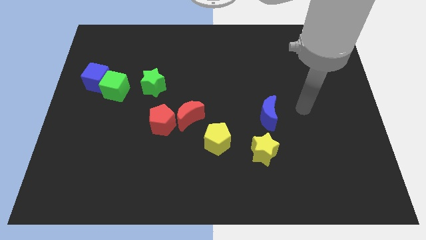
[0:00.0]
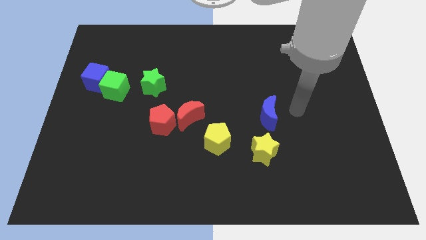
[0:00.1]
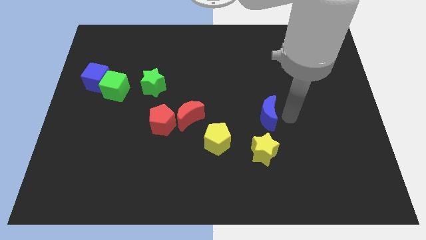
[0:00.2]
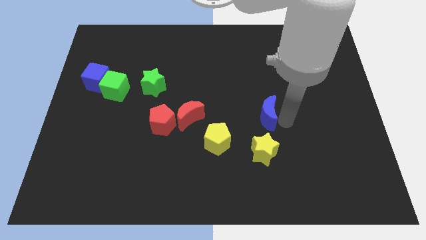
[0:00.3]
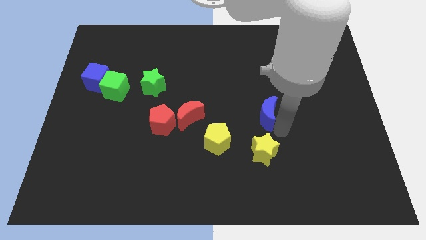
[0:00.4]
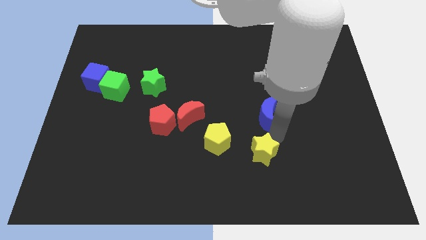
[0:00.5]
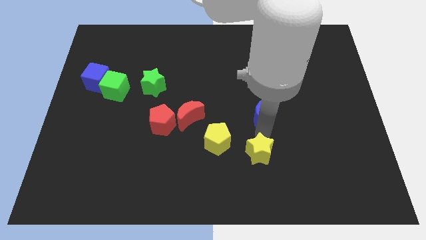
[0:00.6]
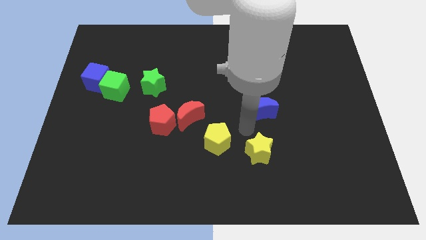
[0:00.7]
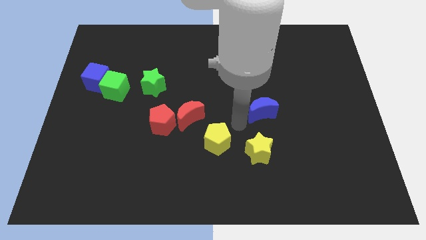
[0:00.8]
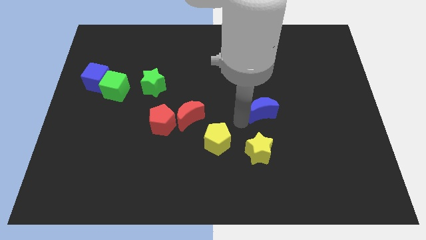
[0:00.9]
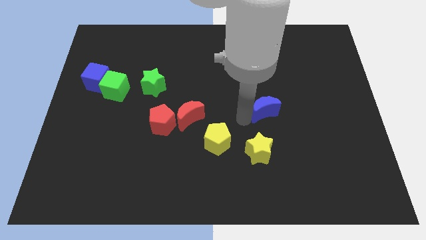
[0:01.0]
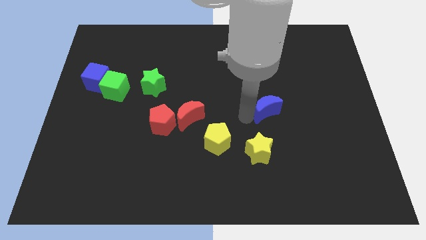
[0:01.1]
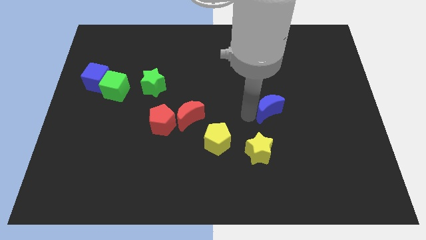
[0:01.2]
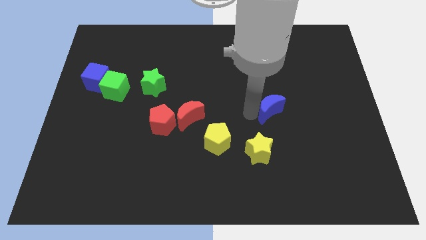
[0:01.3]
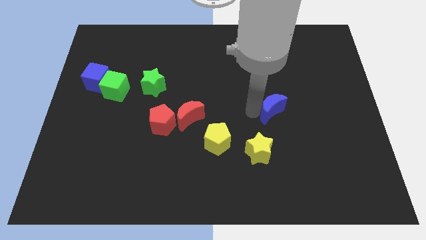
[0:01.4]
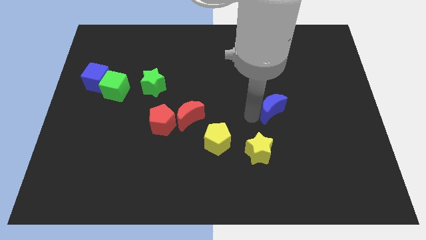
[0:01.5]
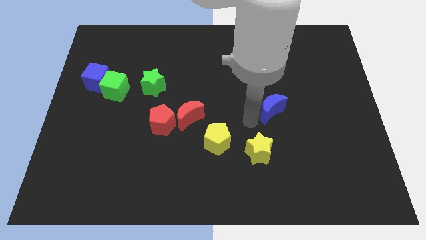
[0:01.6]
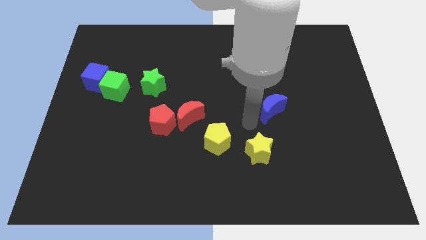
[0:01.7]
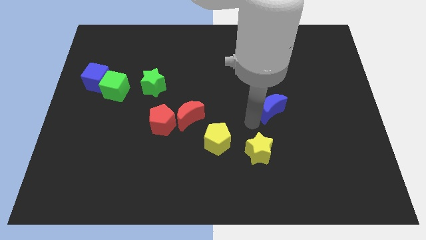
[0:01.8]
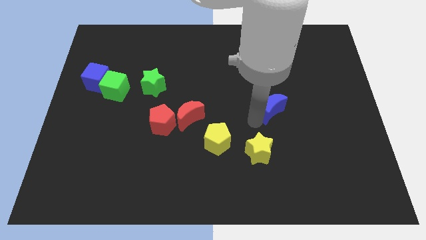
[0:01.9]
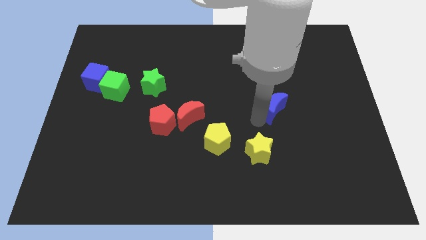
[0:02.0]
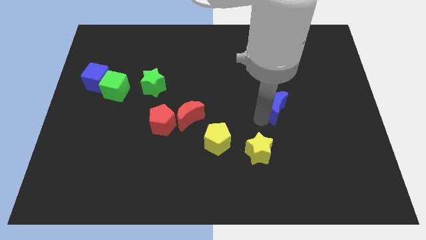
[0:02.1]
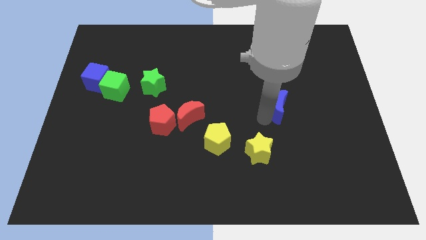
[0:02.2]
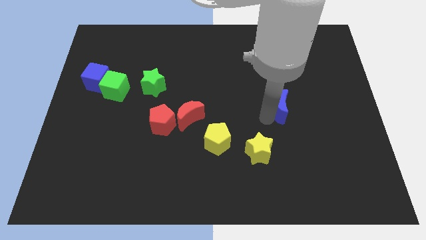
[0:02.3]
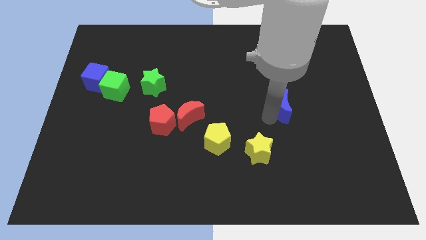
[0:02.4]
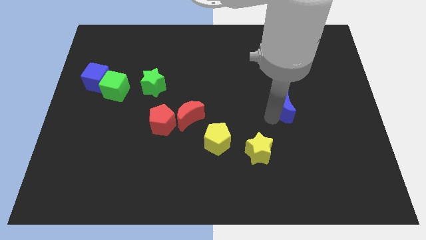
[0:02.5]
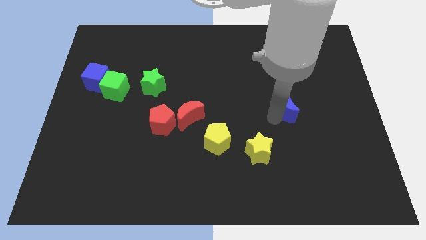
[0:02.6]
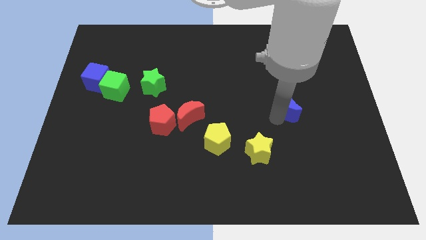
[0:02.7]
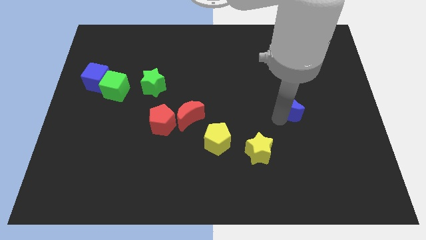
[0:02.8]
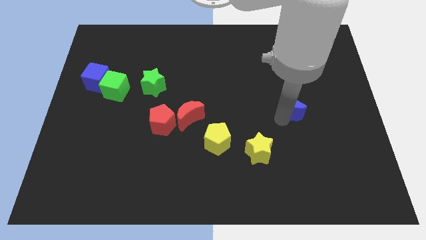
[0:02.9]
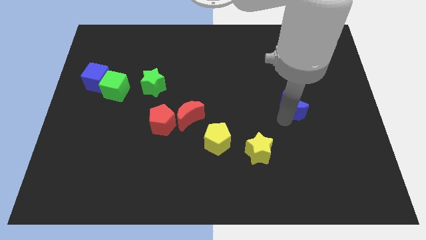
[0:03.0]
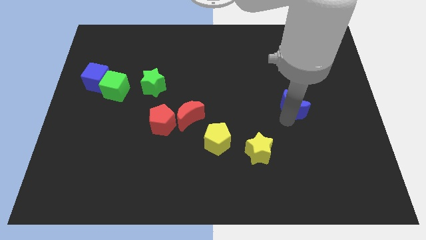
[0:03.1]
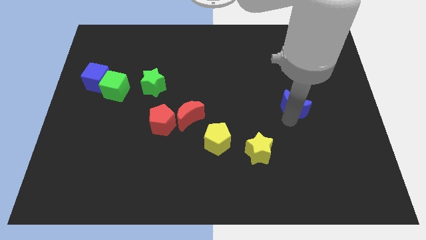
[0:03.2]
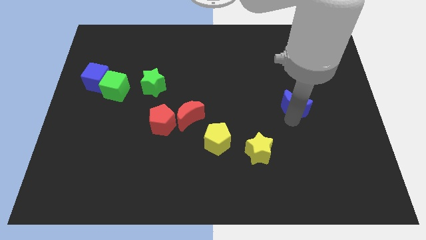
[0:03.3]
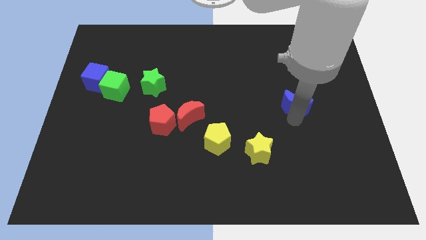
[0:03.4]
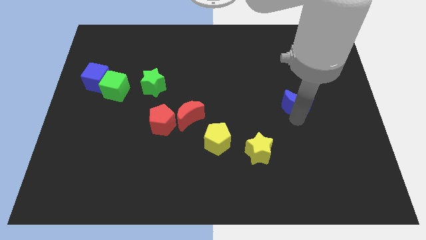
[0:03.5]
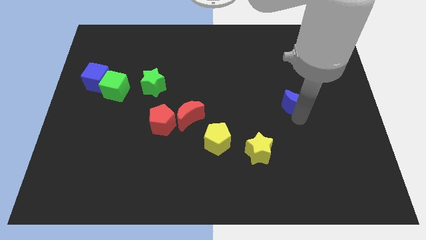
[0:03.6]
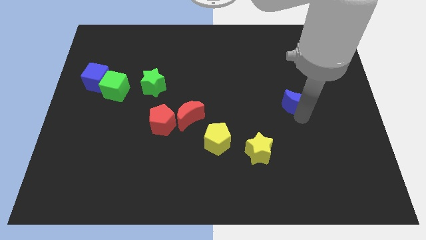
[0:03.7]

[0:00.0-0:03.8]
push the blue moon up and then to the right somewhat

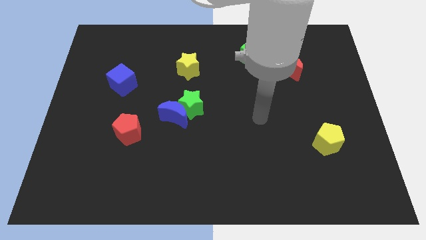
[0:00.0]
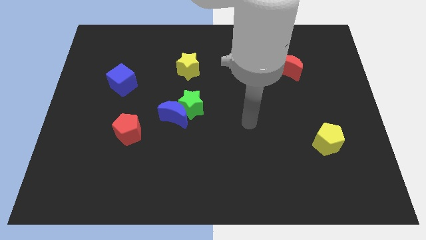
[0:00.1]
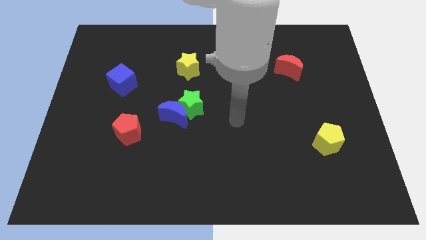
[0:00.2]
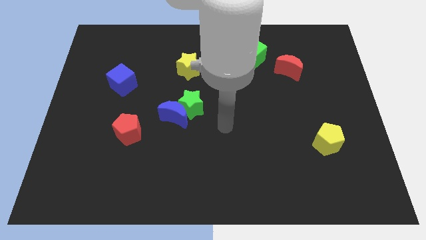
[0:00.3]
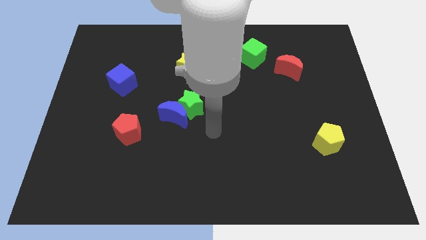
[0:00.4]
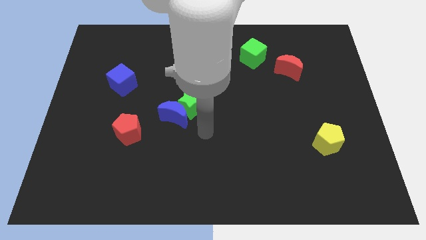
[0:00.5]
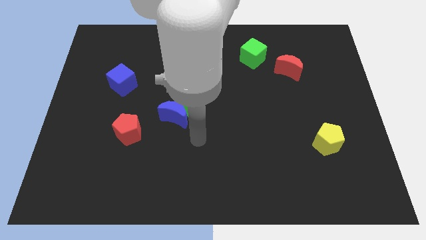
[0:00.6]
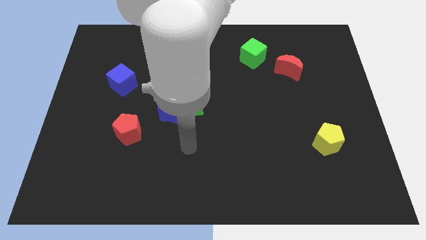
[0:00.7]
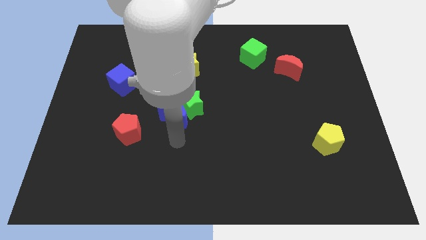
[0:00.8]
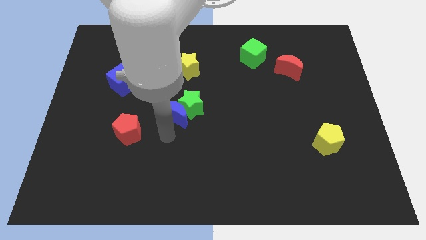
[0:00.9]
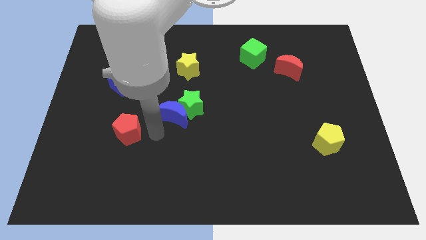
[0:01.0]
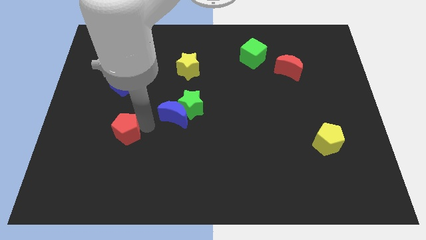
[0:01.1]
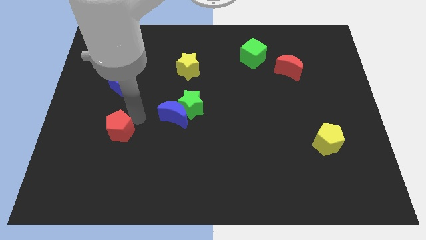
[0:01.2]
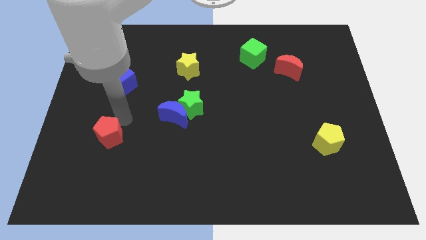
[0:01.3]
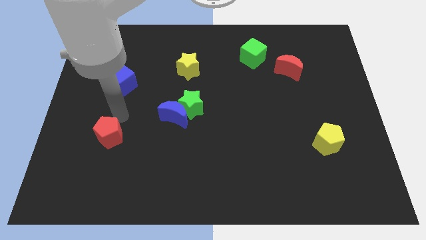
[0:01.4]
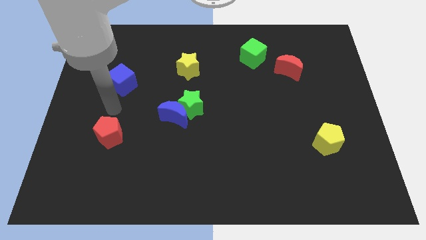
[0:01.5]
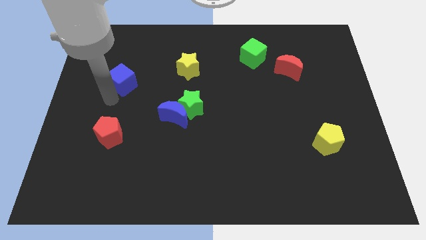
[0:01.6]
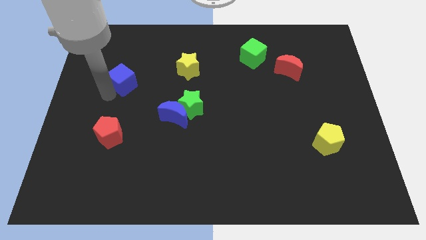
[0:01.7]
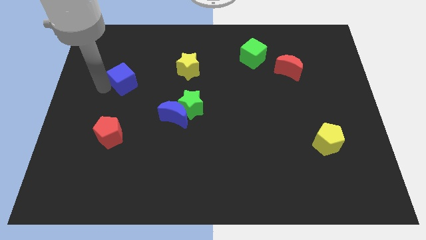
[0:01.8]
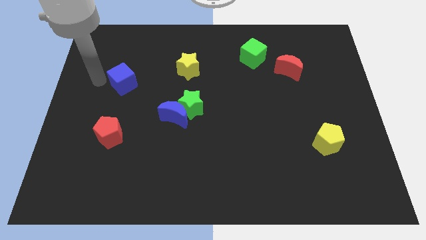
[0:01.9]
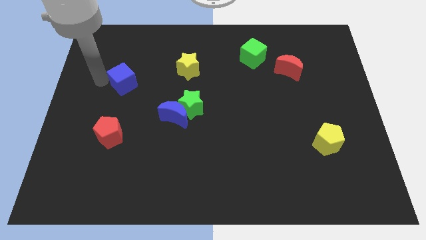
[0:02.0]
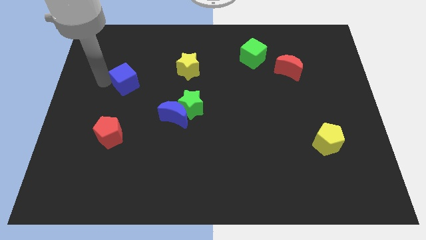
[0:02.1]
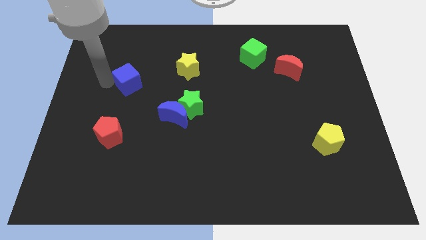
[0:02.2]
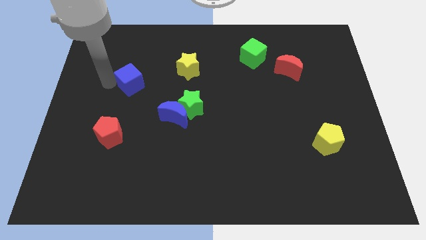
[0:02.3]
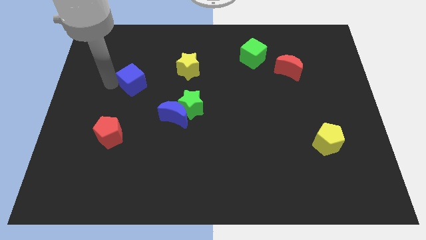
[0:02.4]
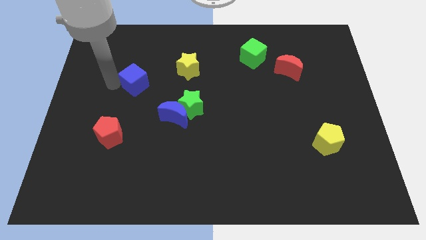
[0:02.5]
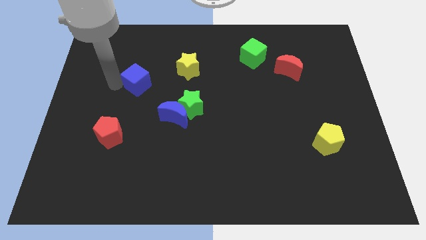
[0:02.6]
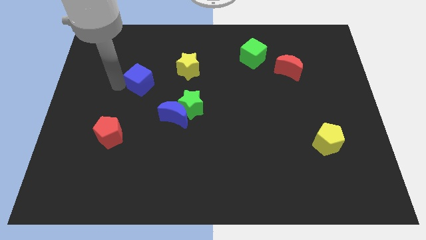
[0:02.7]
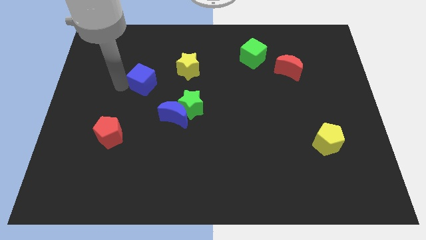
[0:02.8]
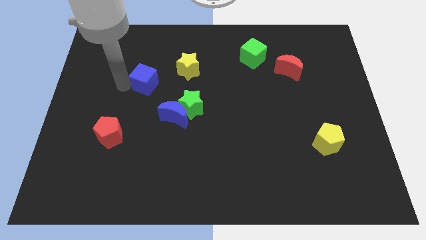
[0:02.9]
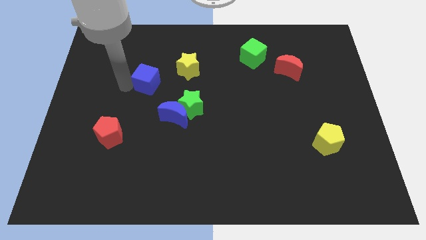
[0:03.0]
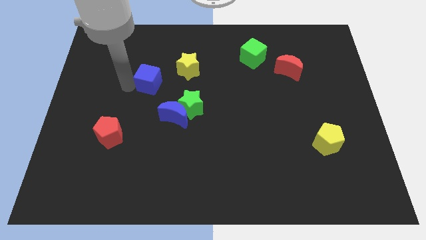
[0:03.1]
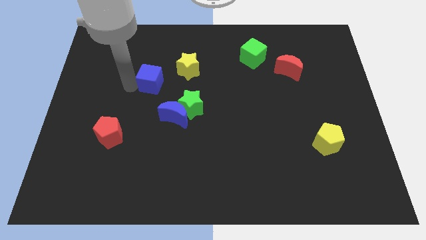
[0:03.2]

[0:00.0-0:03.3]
slide the blue cube right slightly

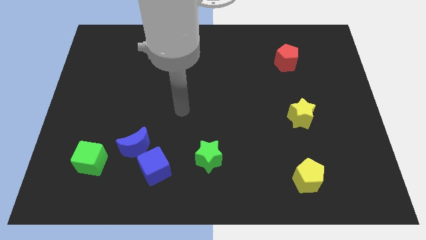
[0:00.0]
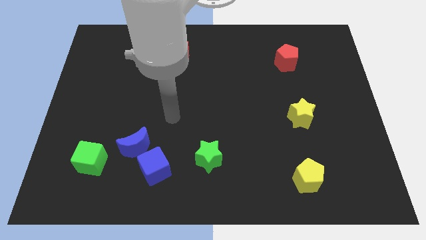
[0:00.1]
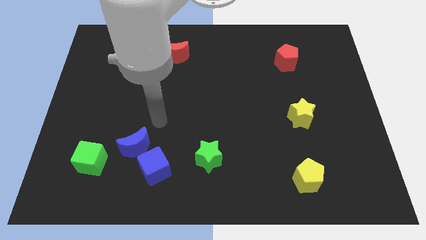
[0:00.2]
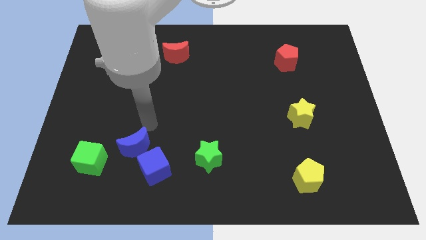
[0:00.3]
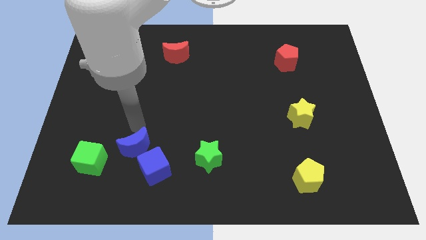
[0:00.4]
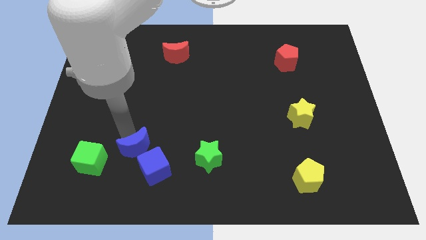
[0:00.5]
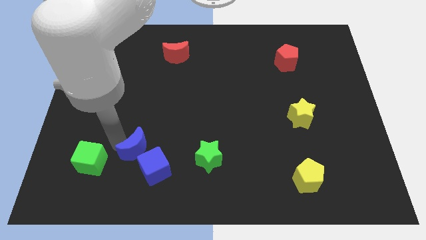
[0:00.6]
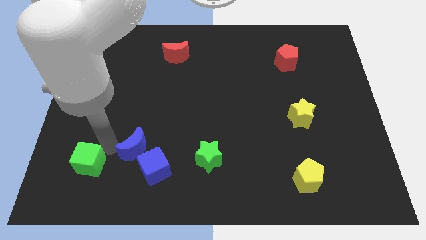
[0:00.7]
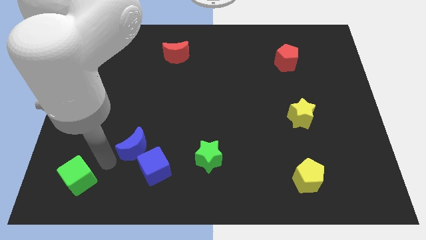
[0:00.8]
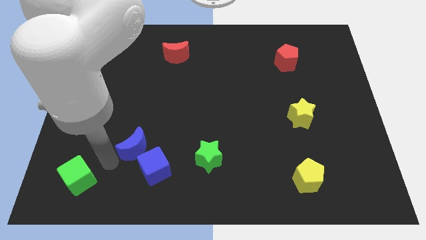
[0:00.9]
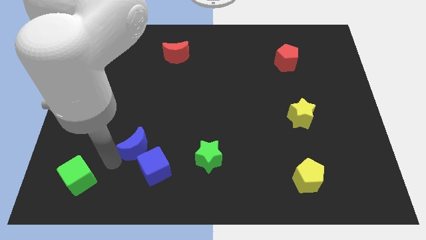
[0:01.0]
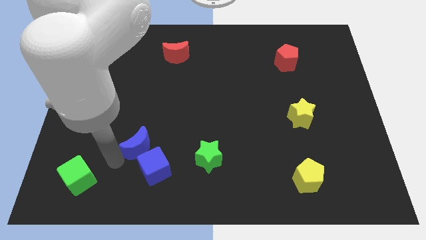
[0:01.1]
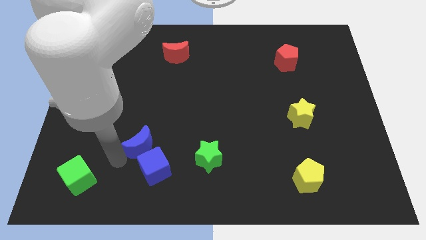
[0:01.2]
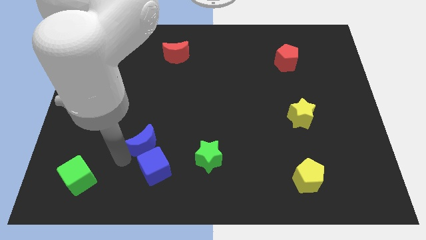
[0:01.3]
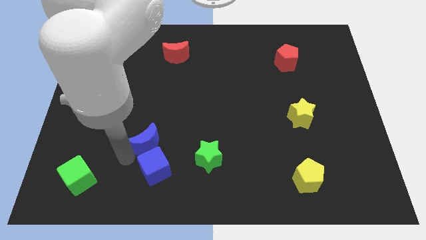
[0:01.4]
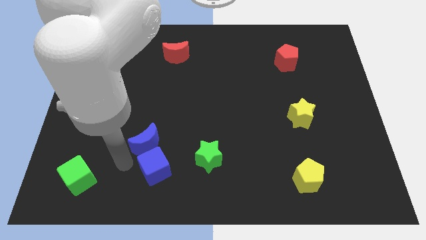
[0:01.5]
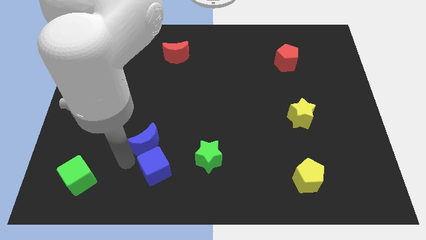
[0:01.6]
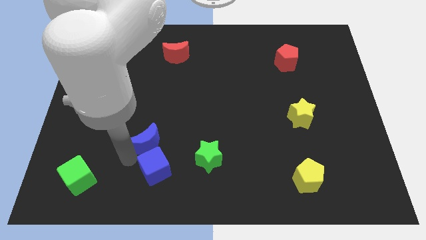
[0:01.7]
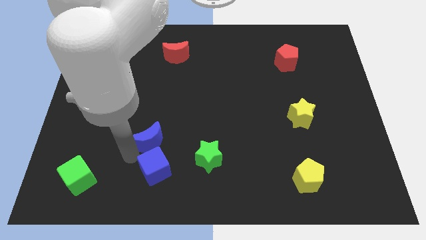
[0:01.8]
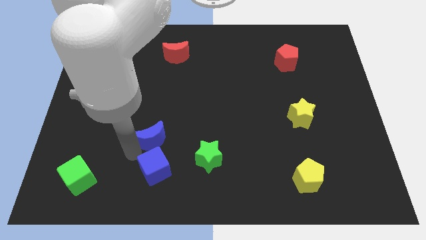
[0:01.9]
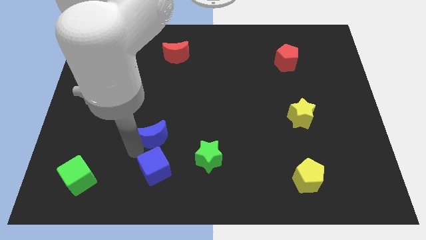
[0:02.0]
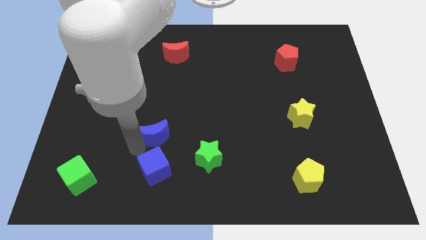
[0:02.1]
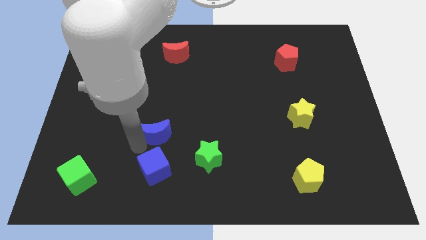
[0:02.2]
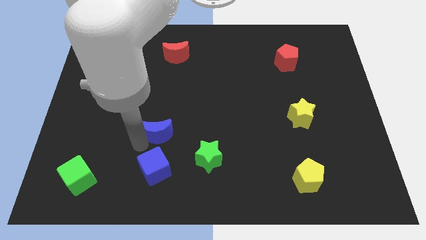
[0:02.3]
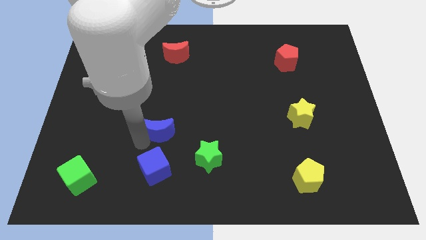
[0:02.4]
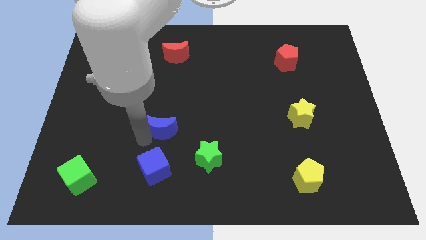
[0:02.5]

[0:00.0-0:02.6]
slightly slide the blue moon up and then right
